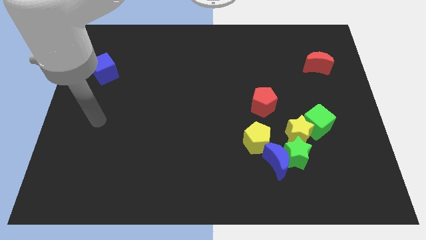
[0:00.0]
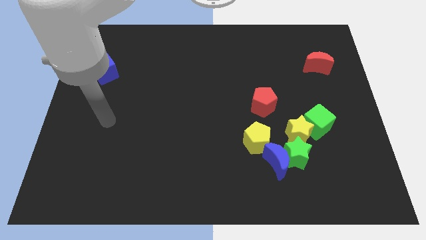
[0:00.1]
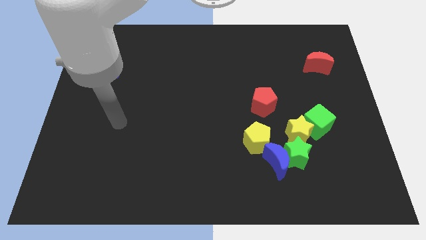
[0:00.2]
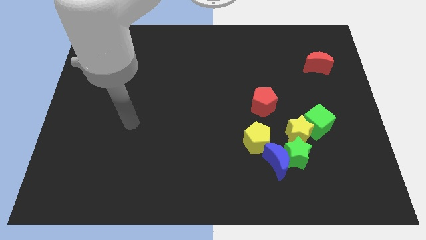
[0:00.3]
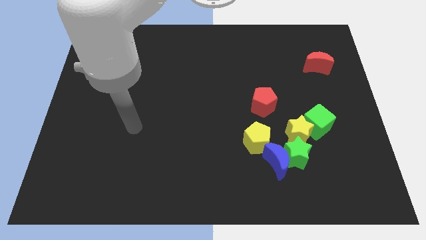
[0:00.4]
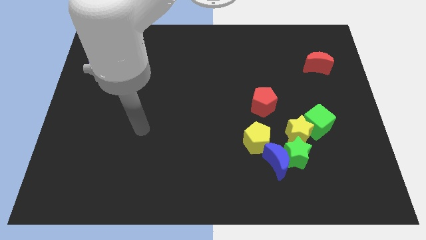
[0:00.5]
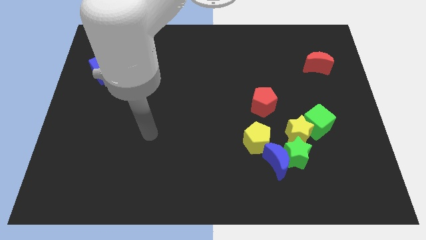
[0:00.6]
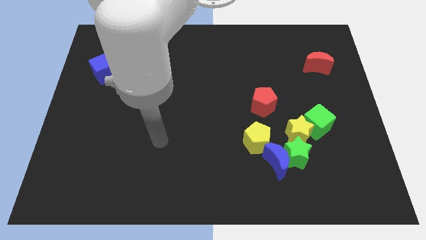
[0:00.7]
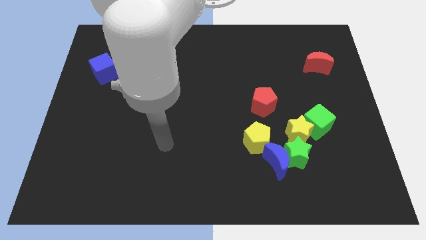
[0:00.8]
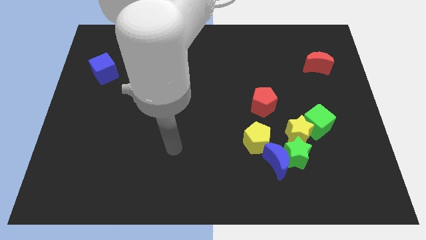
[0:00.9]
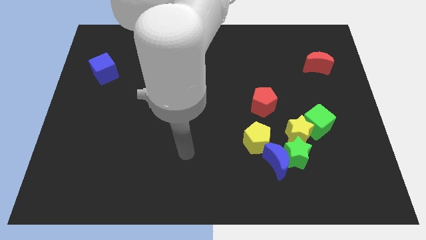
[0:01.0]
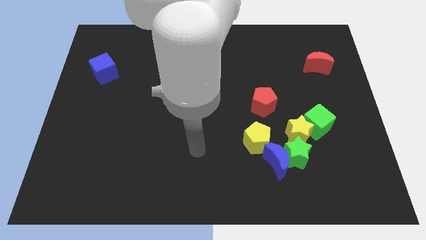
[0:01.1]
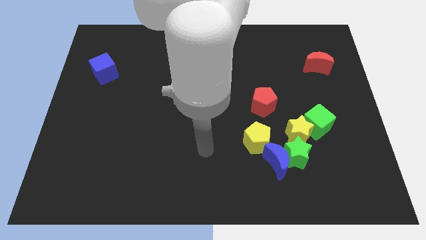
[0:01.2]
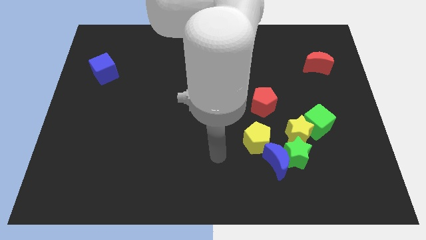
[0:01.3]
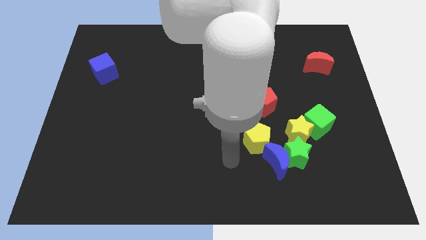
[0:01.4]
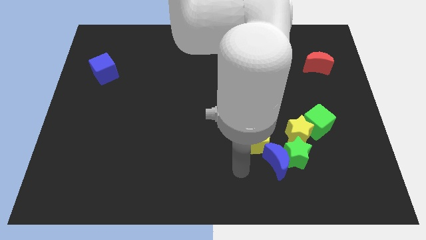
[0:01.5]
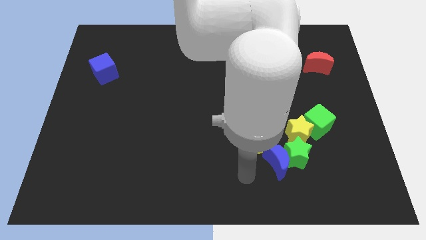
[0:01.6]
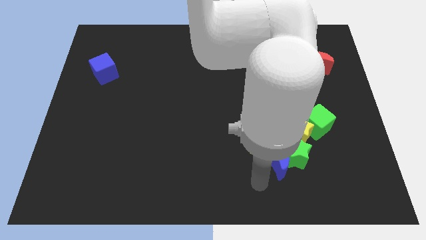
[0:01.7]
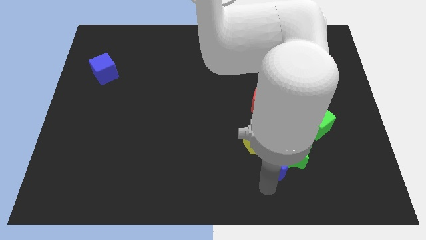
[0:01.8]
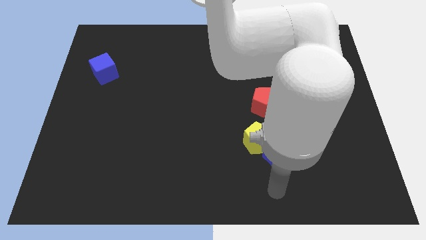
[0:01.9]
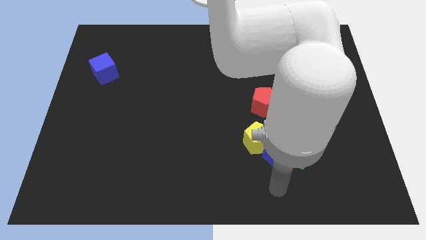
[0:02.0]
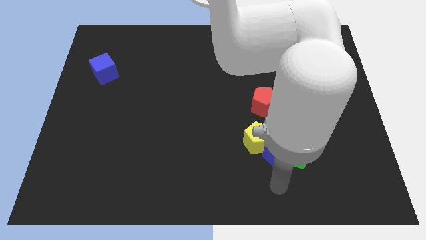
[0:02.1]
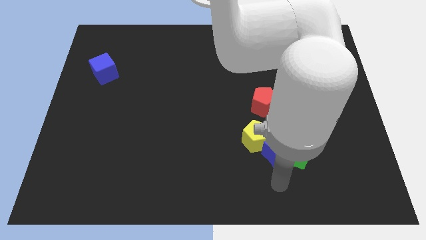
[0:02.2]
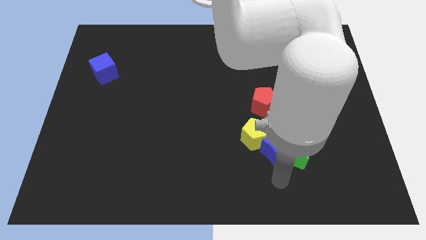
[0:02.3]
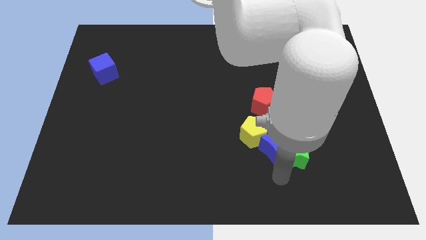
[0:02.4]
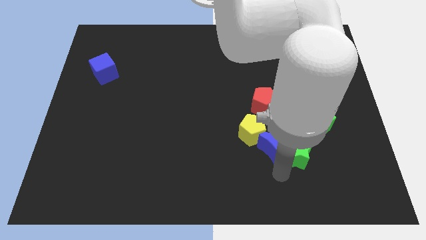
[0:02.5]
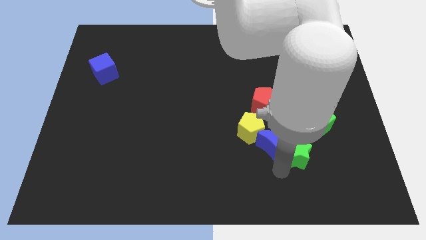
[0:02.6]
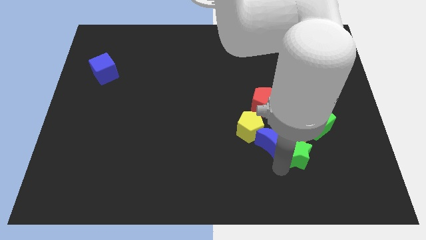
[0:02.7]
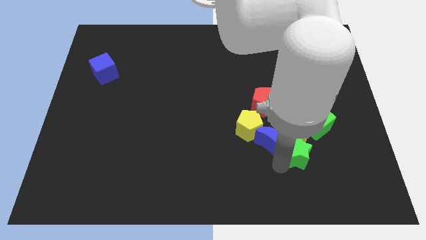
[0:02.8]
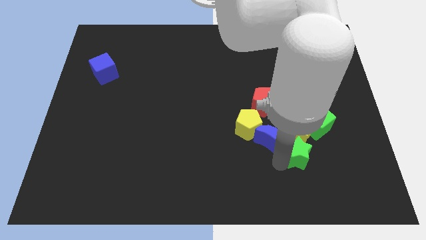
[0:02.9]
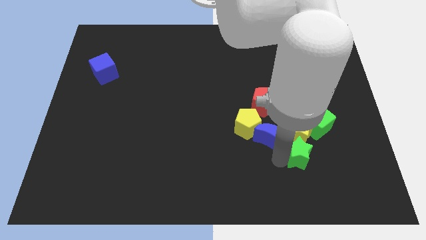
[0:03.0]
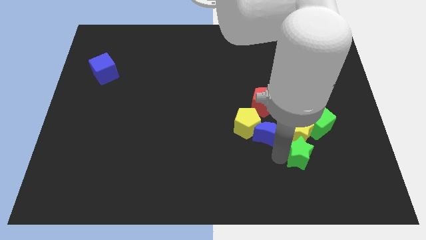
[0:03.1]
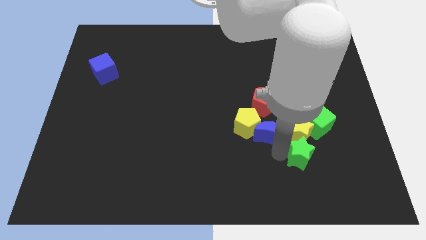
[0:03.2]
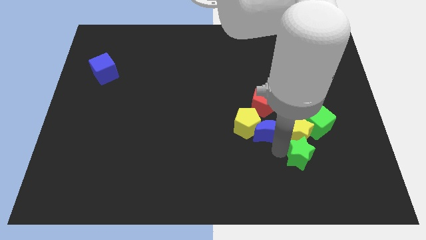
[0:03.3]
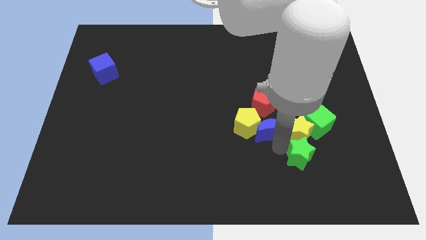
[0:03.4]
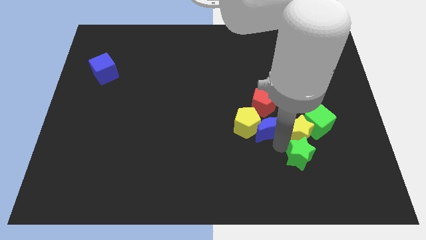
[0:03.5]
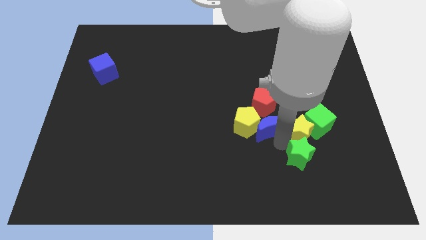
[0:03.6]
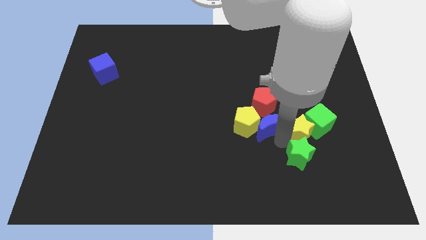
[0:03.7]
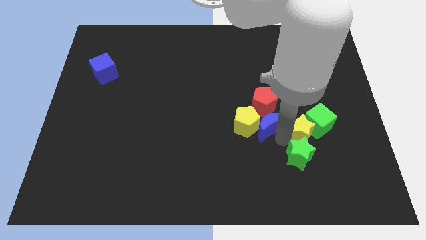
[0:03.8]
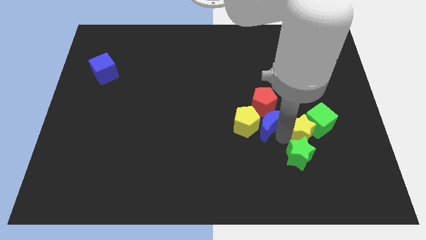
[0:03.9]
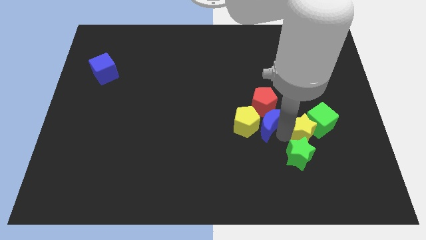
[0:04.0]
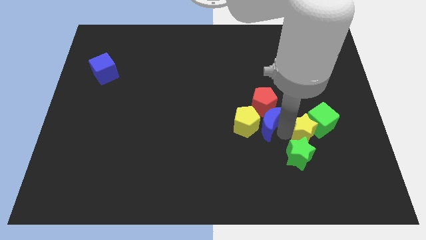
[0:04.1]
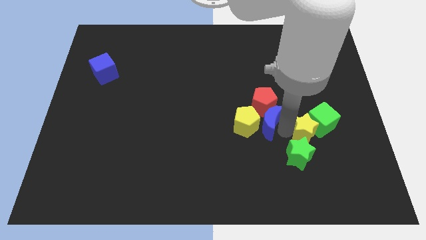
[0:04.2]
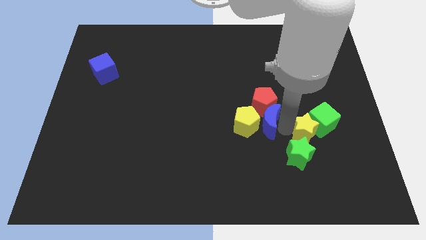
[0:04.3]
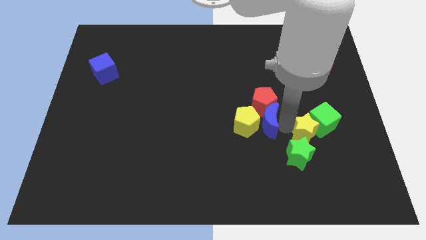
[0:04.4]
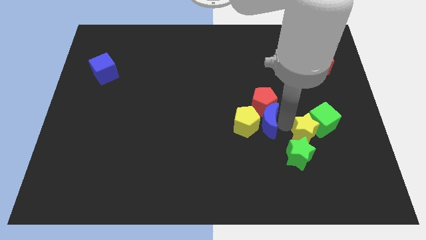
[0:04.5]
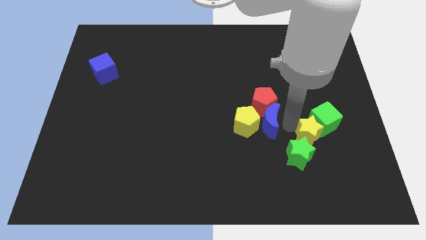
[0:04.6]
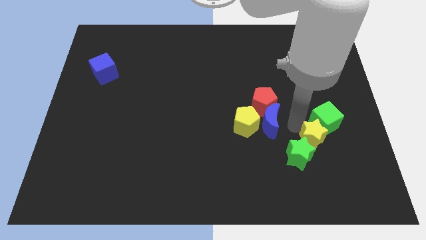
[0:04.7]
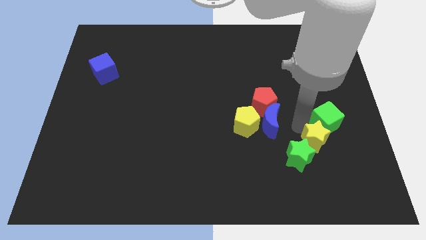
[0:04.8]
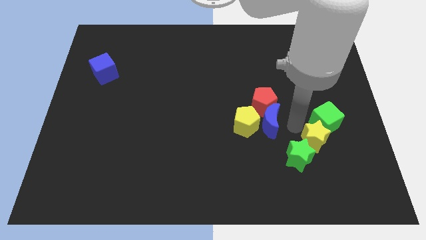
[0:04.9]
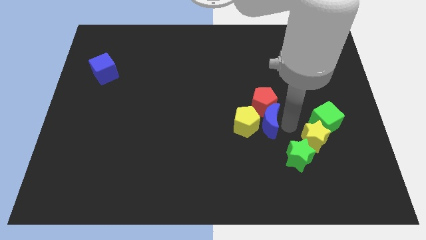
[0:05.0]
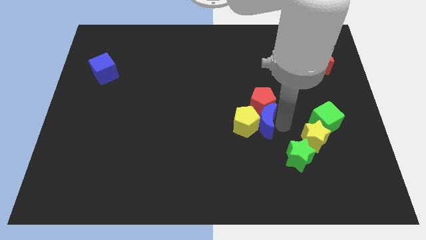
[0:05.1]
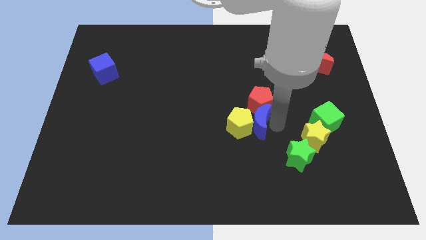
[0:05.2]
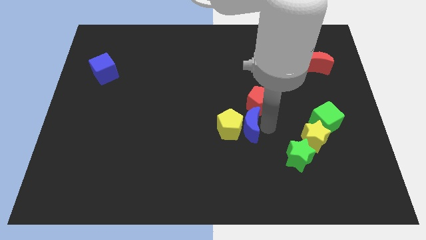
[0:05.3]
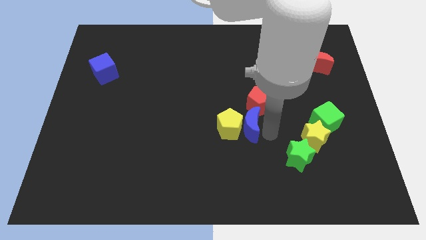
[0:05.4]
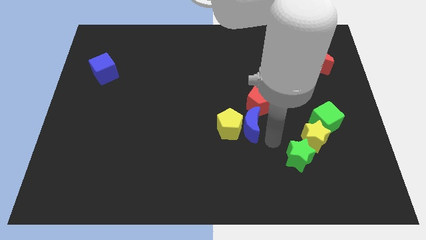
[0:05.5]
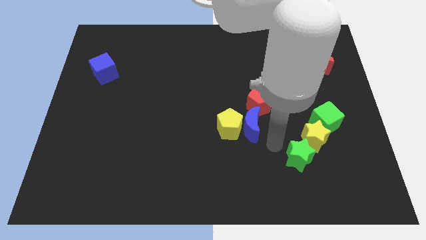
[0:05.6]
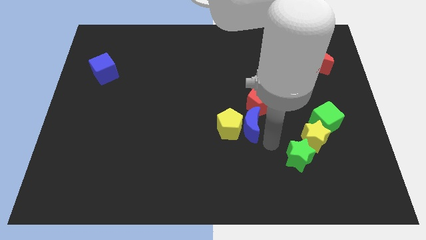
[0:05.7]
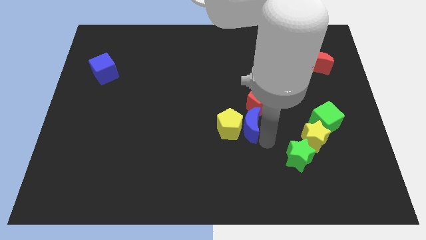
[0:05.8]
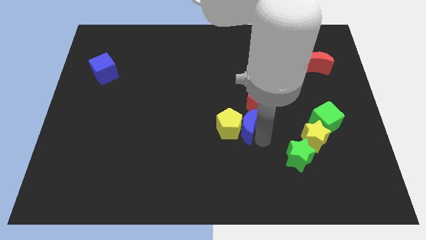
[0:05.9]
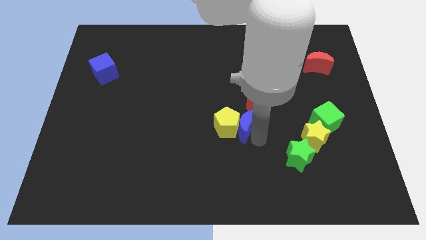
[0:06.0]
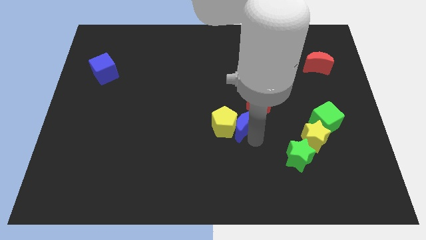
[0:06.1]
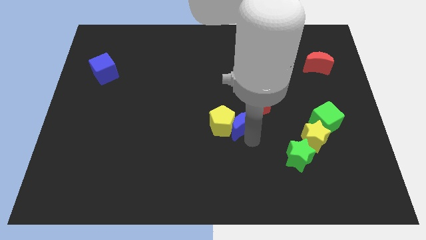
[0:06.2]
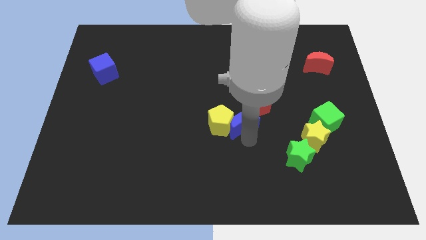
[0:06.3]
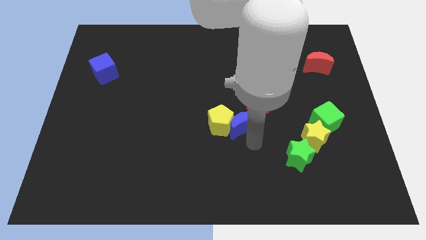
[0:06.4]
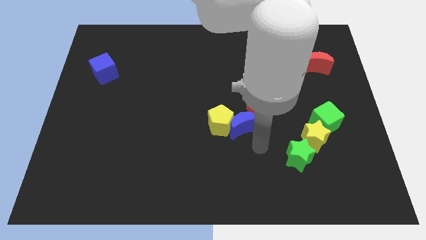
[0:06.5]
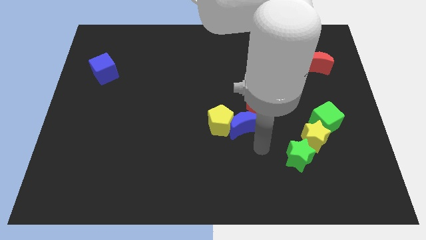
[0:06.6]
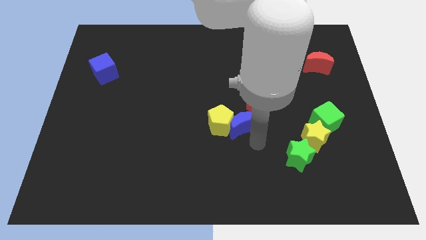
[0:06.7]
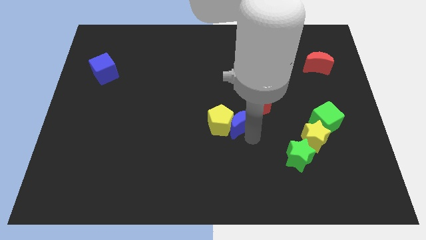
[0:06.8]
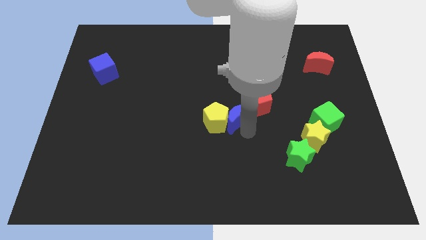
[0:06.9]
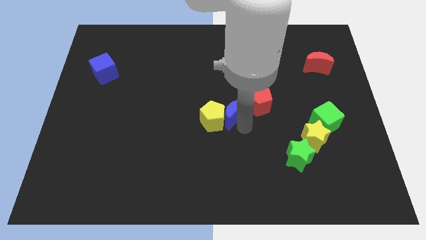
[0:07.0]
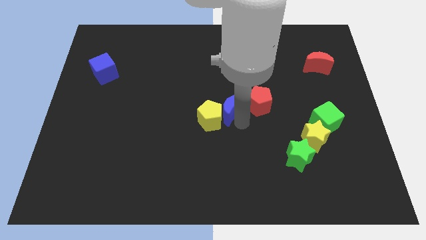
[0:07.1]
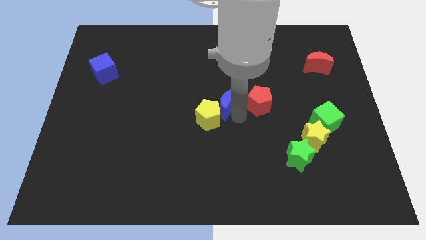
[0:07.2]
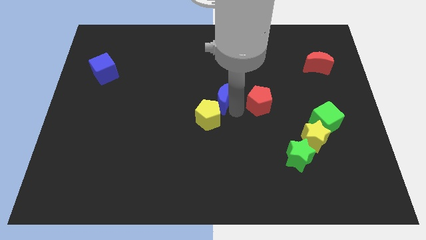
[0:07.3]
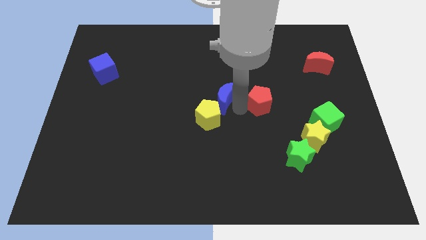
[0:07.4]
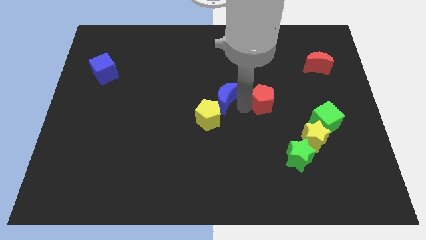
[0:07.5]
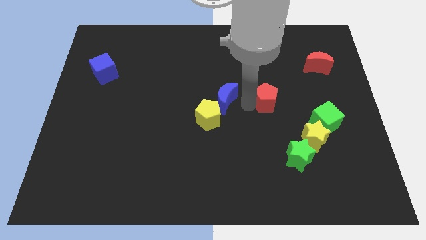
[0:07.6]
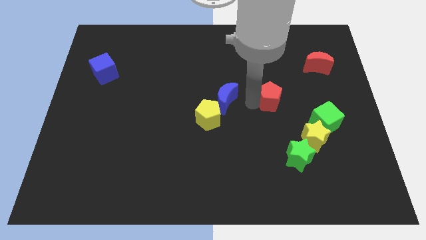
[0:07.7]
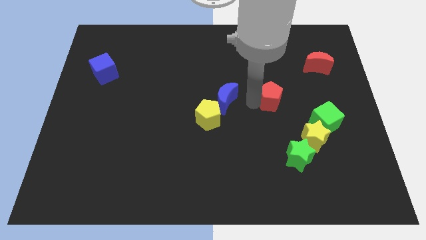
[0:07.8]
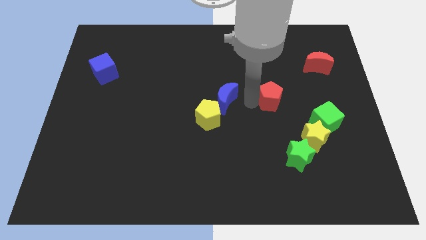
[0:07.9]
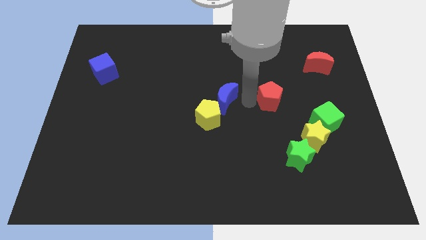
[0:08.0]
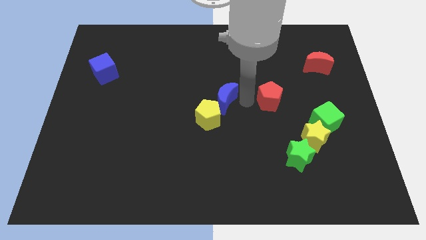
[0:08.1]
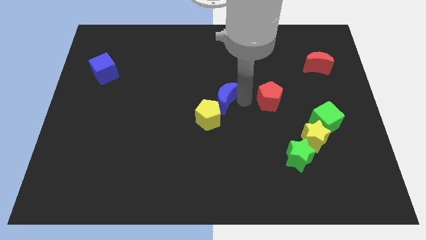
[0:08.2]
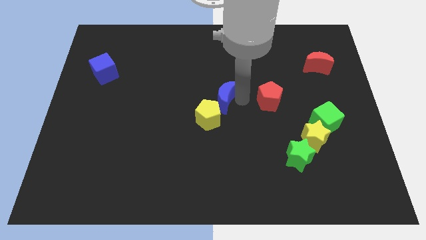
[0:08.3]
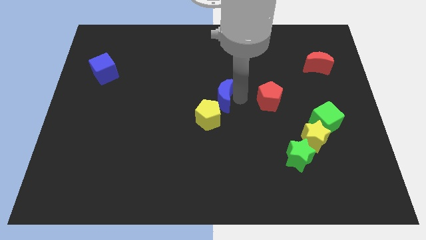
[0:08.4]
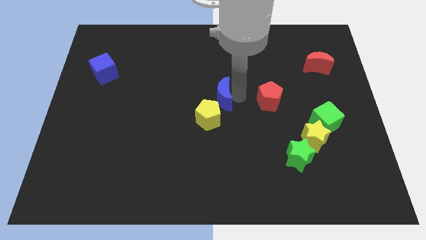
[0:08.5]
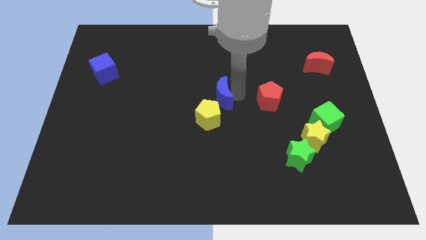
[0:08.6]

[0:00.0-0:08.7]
move the blue moon up and left
